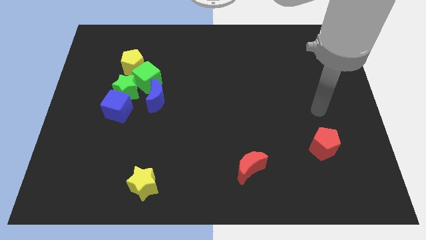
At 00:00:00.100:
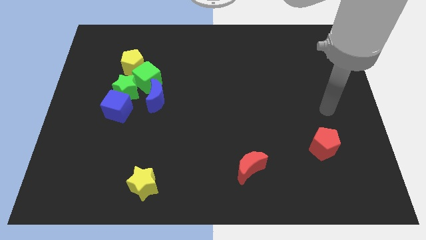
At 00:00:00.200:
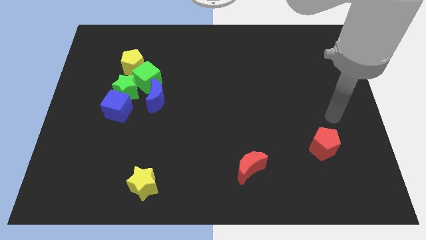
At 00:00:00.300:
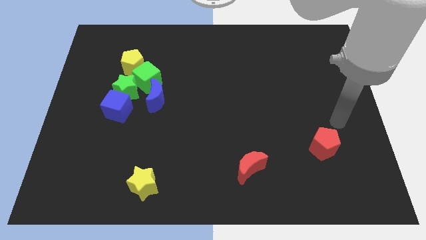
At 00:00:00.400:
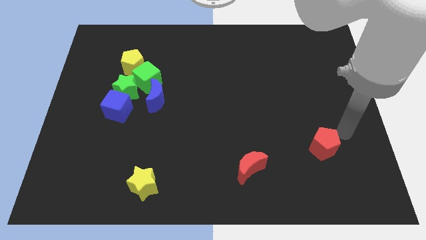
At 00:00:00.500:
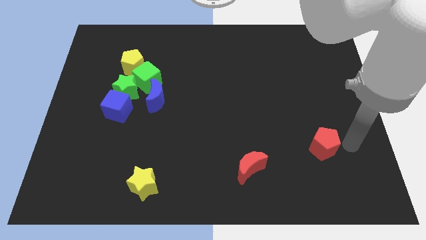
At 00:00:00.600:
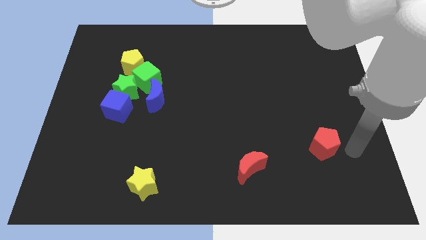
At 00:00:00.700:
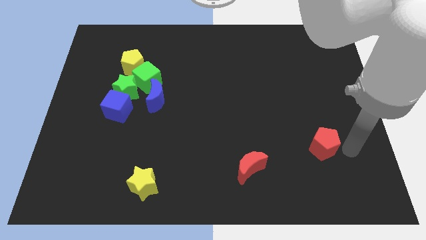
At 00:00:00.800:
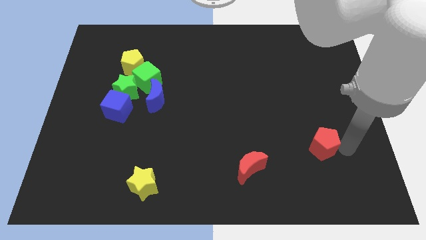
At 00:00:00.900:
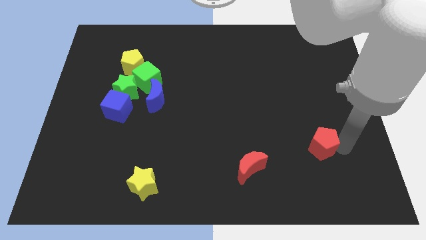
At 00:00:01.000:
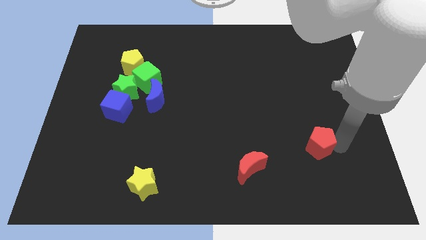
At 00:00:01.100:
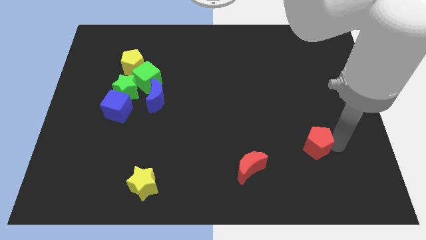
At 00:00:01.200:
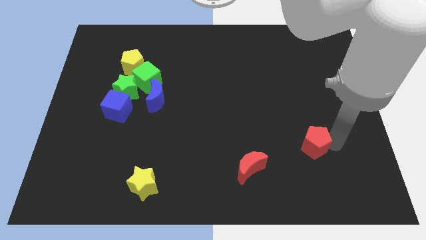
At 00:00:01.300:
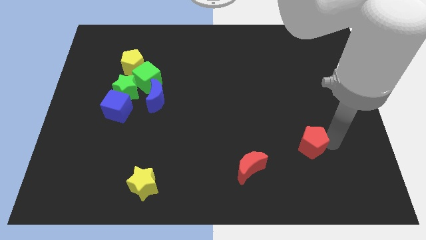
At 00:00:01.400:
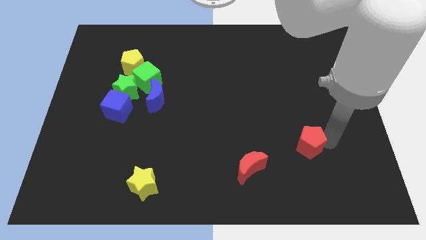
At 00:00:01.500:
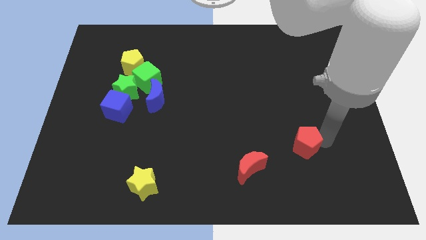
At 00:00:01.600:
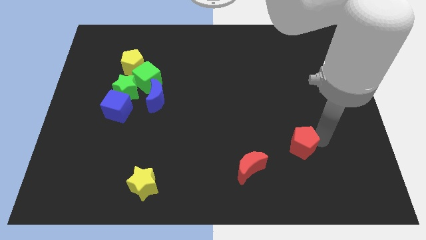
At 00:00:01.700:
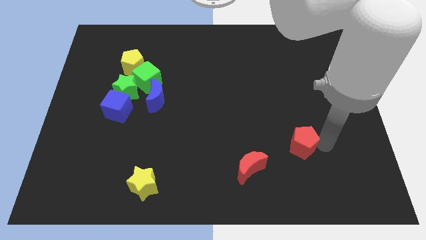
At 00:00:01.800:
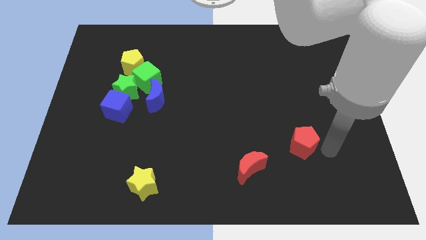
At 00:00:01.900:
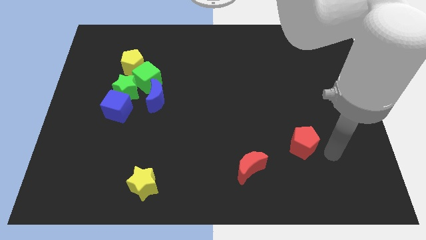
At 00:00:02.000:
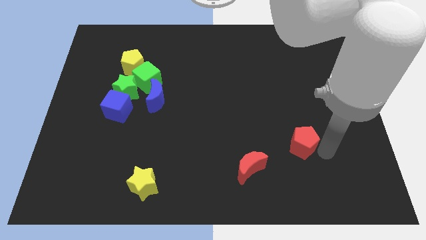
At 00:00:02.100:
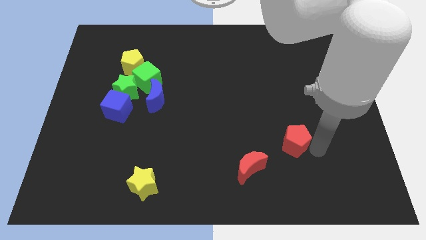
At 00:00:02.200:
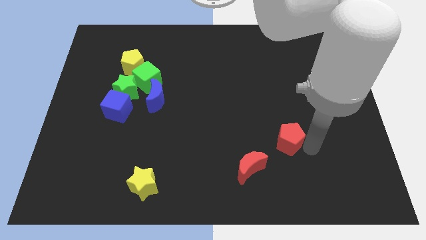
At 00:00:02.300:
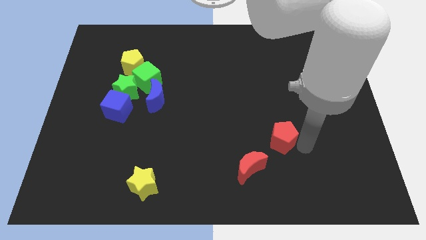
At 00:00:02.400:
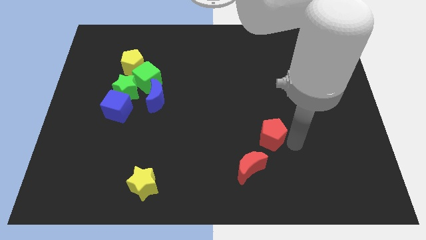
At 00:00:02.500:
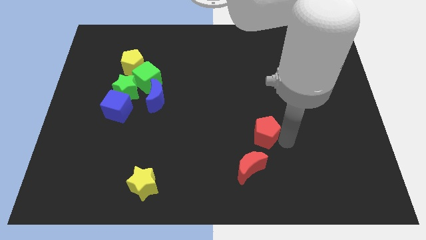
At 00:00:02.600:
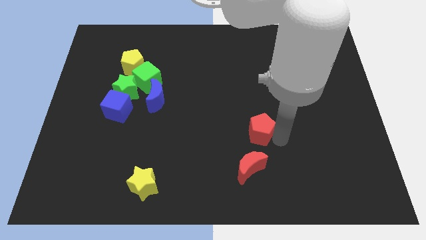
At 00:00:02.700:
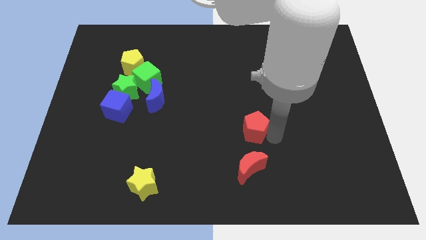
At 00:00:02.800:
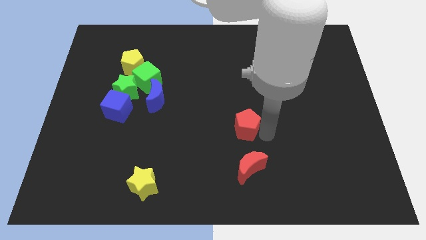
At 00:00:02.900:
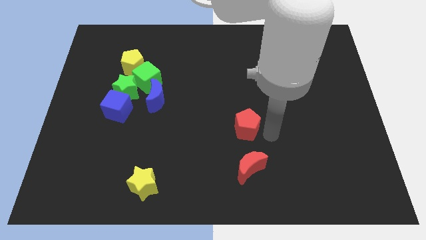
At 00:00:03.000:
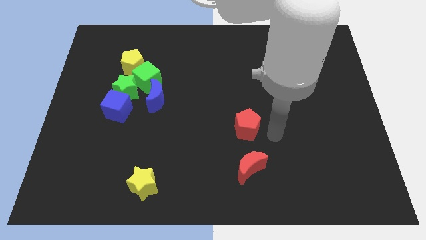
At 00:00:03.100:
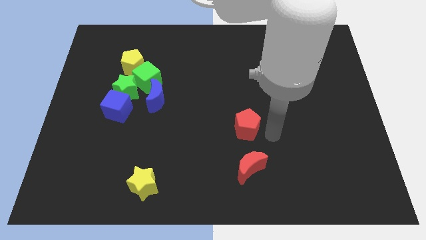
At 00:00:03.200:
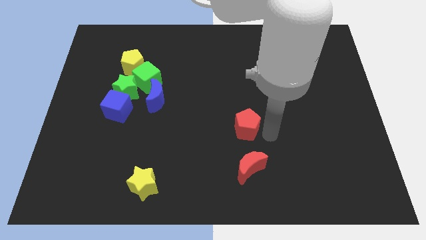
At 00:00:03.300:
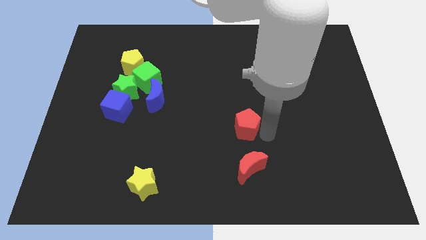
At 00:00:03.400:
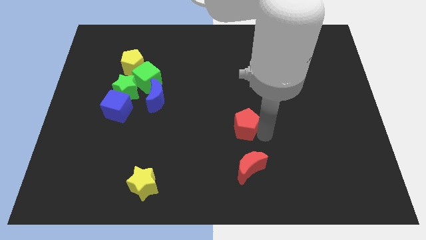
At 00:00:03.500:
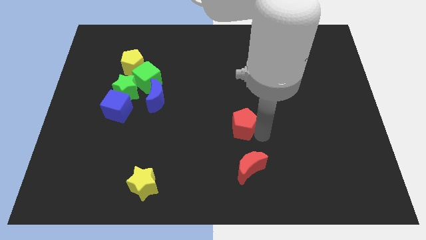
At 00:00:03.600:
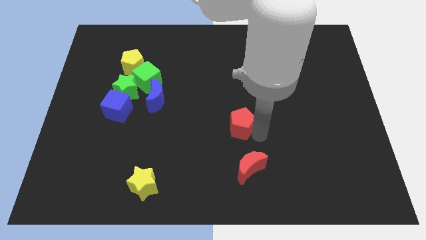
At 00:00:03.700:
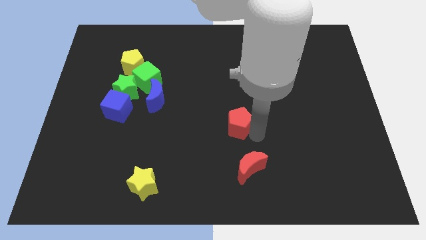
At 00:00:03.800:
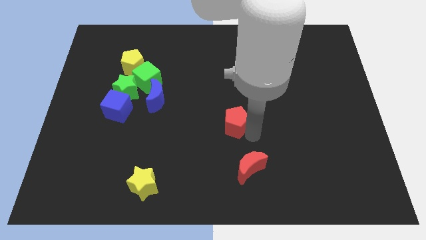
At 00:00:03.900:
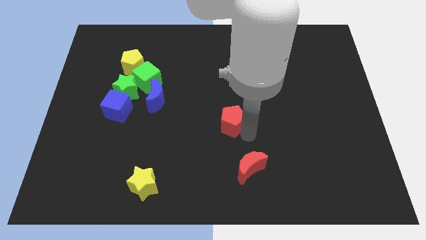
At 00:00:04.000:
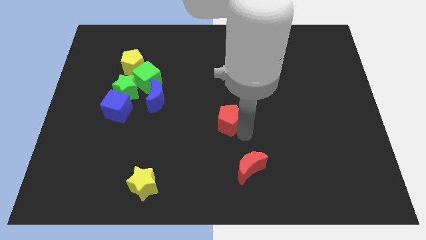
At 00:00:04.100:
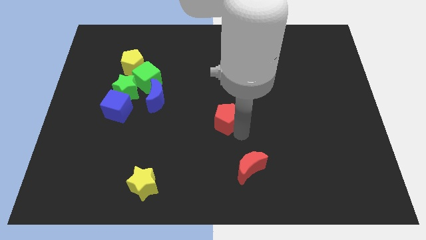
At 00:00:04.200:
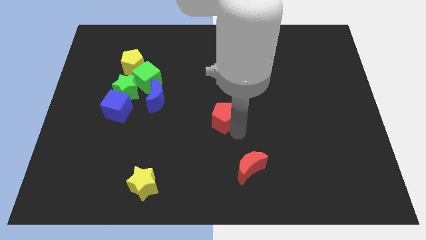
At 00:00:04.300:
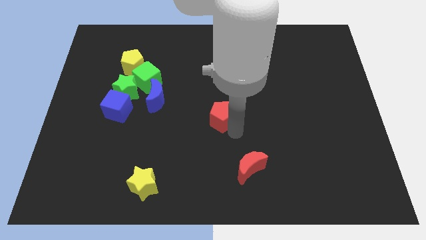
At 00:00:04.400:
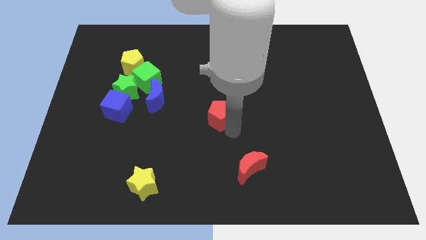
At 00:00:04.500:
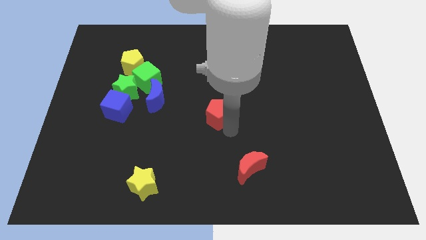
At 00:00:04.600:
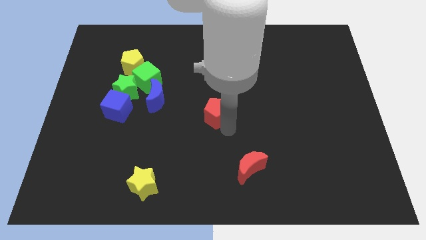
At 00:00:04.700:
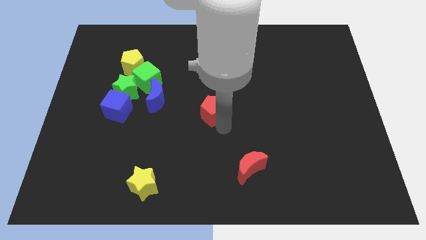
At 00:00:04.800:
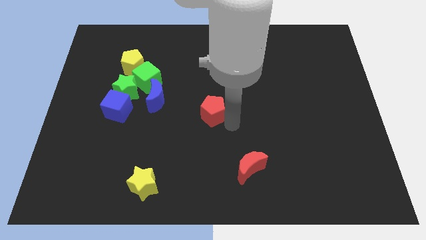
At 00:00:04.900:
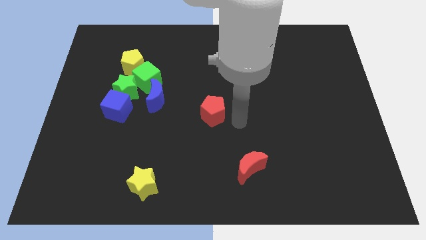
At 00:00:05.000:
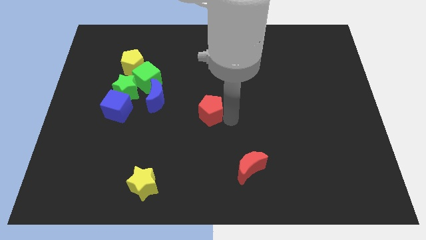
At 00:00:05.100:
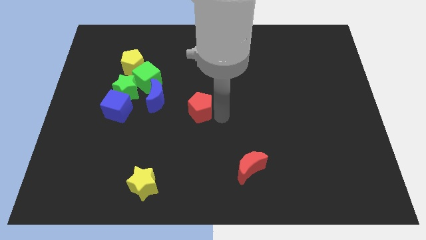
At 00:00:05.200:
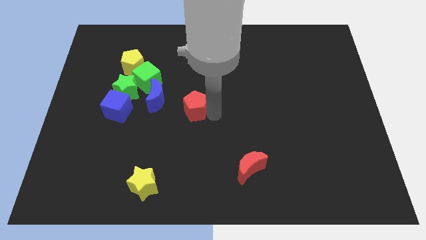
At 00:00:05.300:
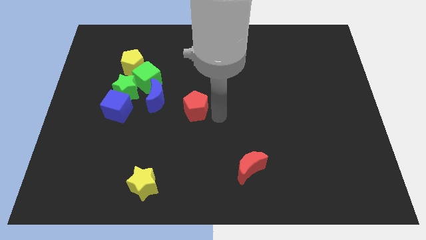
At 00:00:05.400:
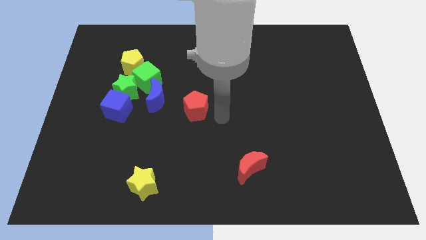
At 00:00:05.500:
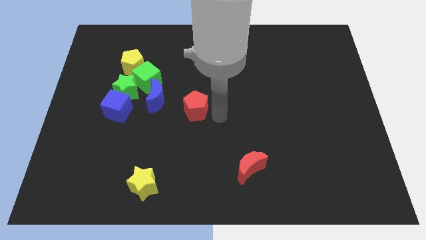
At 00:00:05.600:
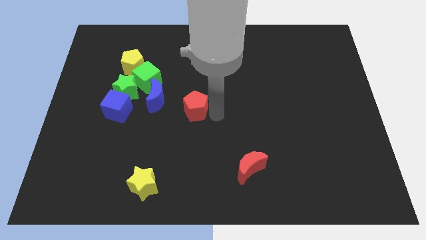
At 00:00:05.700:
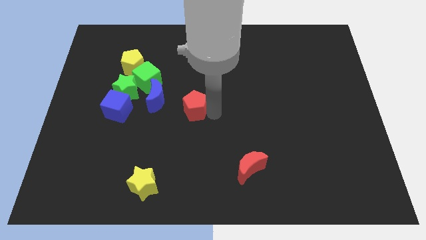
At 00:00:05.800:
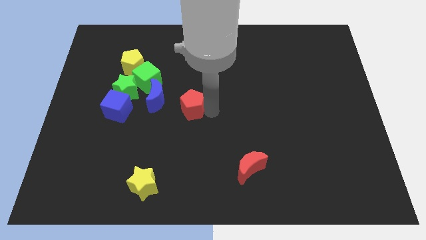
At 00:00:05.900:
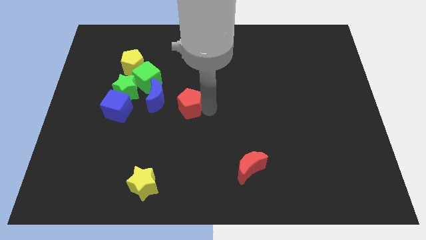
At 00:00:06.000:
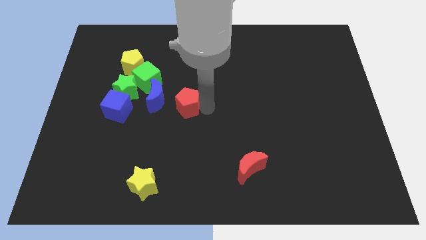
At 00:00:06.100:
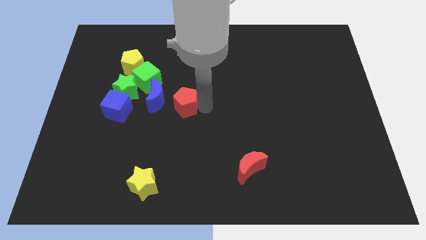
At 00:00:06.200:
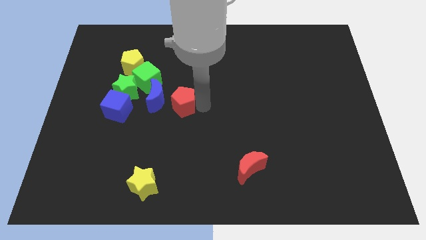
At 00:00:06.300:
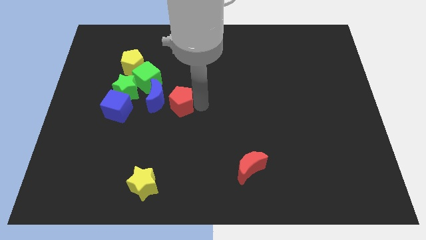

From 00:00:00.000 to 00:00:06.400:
push the red pentagon next to the blue moon

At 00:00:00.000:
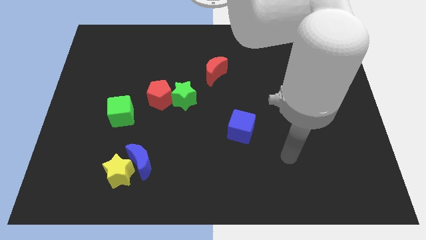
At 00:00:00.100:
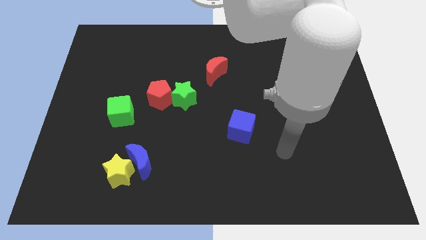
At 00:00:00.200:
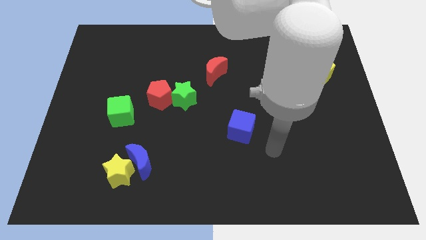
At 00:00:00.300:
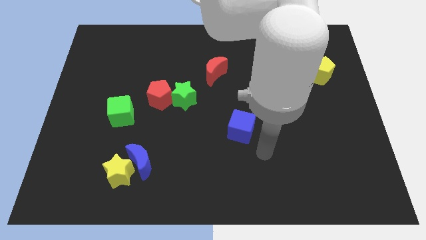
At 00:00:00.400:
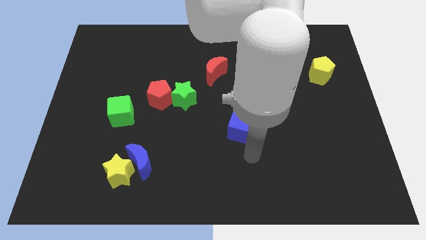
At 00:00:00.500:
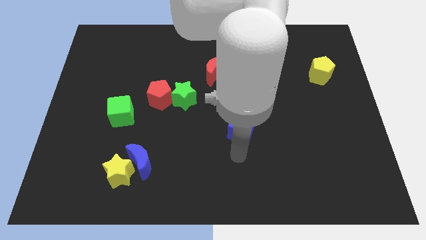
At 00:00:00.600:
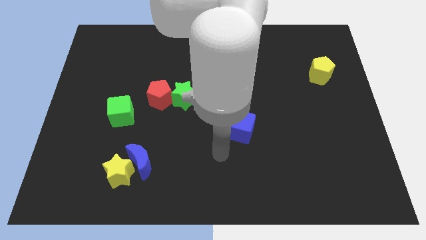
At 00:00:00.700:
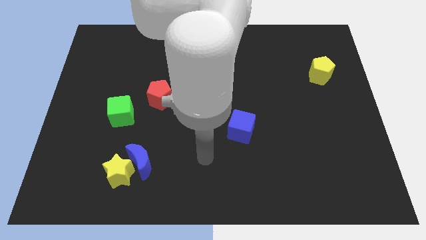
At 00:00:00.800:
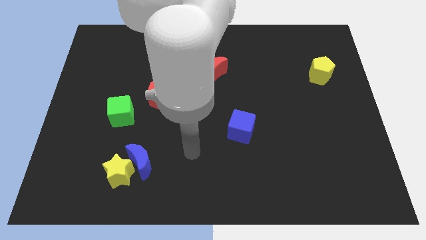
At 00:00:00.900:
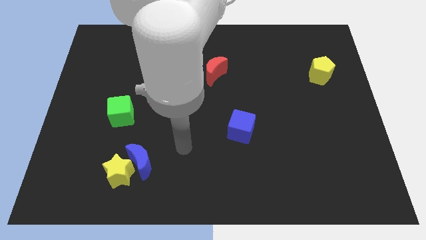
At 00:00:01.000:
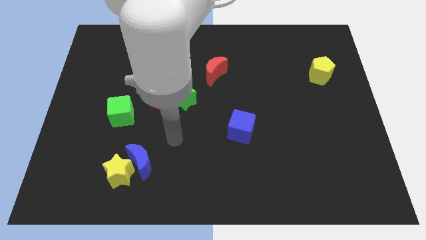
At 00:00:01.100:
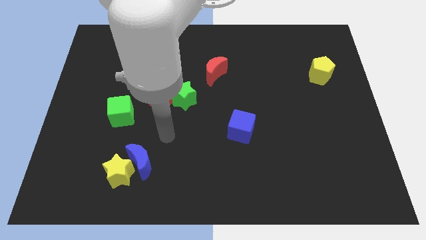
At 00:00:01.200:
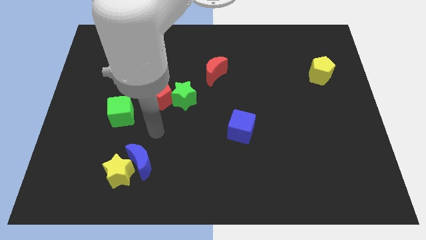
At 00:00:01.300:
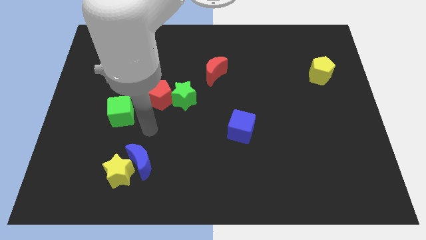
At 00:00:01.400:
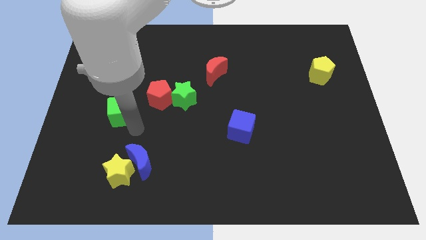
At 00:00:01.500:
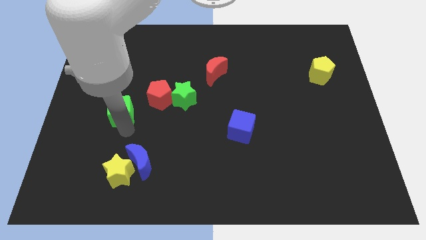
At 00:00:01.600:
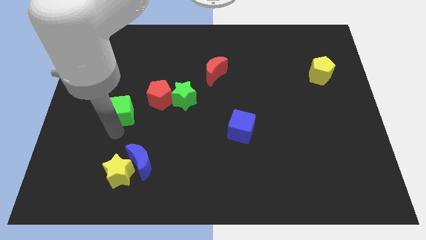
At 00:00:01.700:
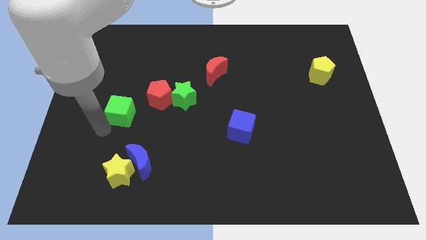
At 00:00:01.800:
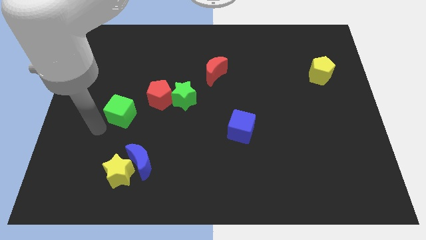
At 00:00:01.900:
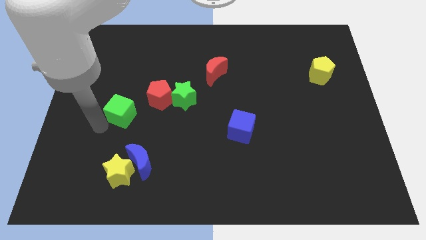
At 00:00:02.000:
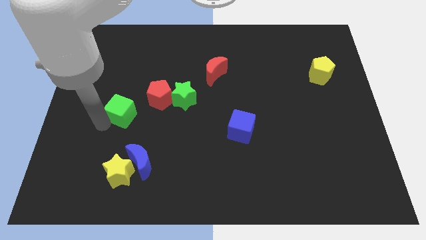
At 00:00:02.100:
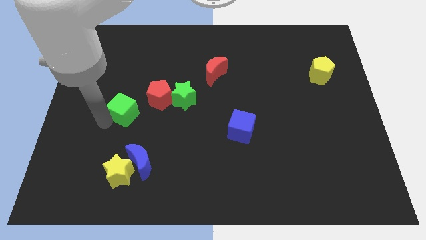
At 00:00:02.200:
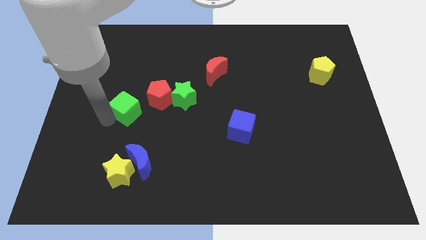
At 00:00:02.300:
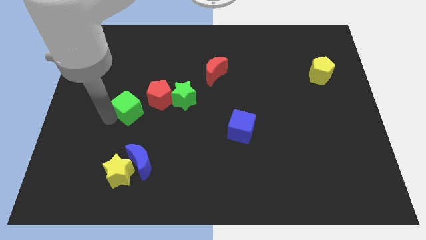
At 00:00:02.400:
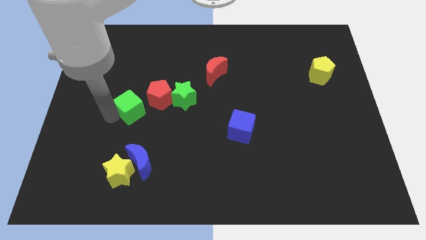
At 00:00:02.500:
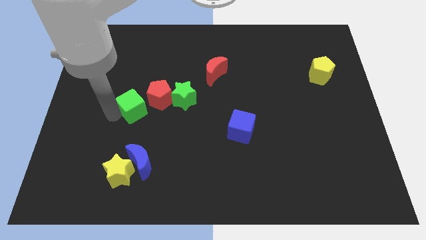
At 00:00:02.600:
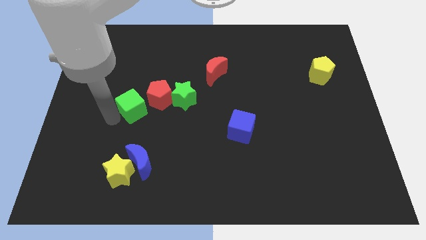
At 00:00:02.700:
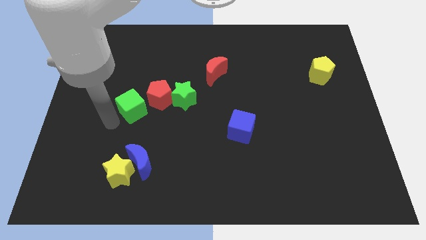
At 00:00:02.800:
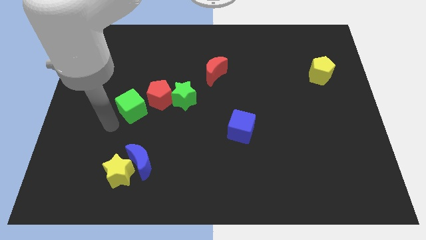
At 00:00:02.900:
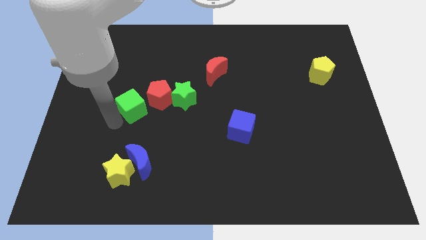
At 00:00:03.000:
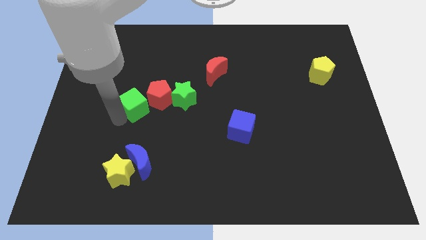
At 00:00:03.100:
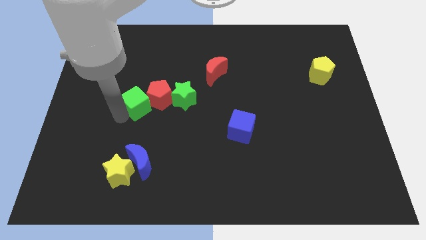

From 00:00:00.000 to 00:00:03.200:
move the green cube to the red pentagon
